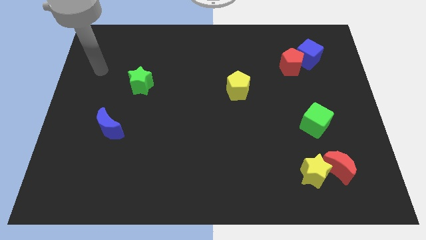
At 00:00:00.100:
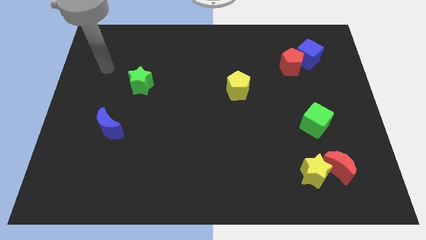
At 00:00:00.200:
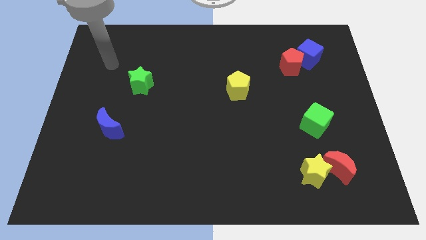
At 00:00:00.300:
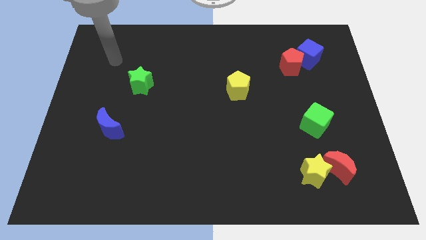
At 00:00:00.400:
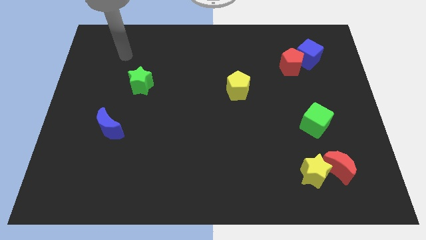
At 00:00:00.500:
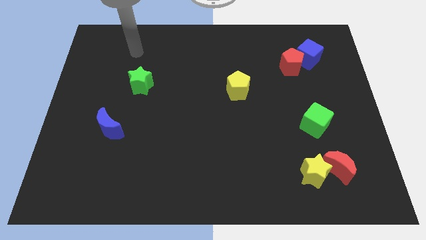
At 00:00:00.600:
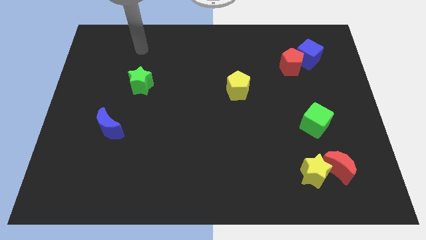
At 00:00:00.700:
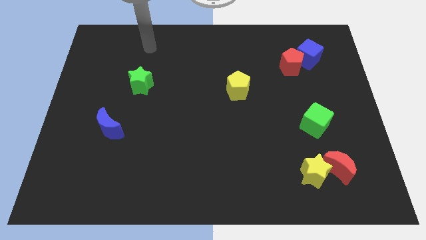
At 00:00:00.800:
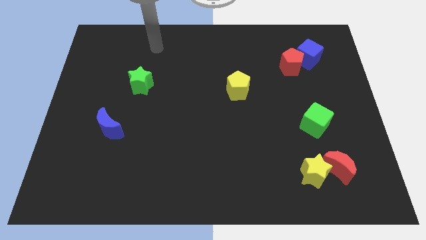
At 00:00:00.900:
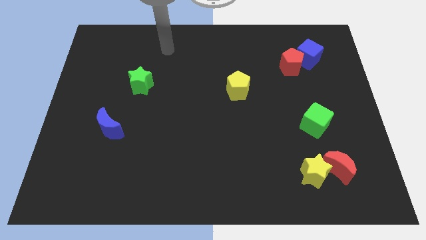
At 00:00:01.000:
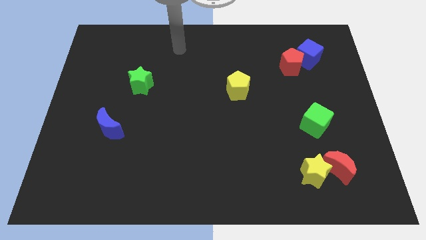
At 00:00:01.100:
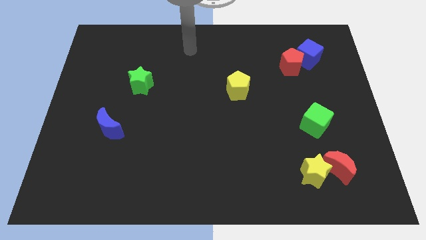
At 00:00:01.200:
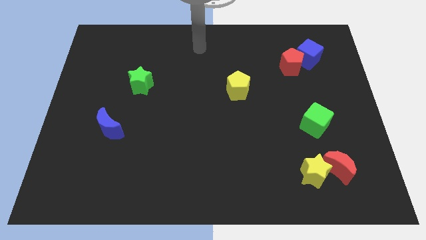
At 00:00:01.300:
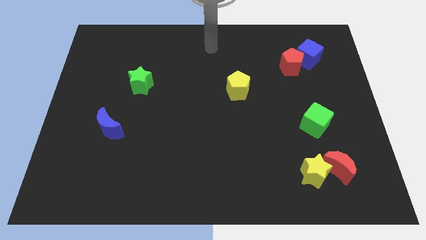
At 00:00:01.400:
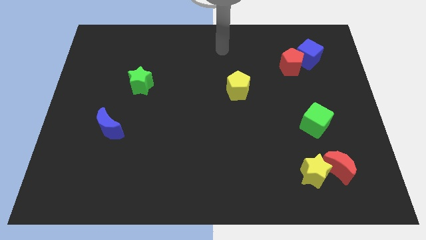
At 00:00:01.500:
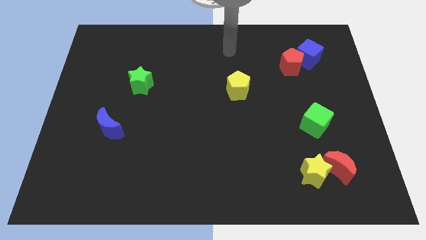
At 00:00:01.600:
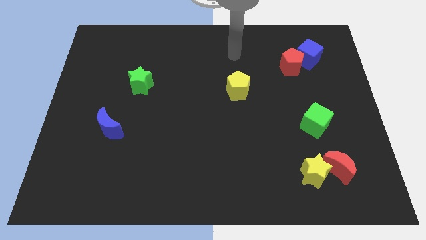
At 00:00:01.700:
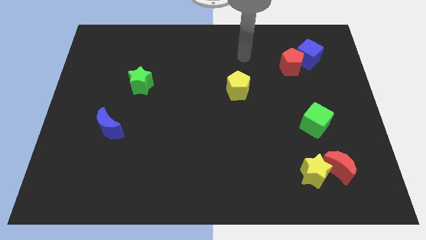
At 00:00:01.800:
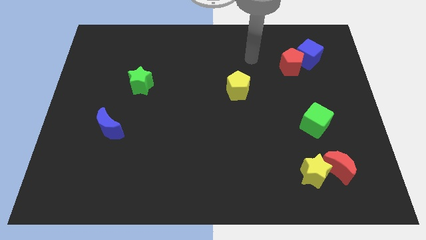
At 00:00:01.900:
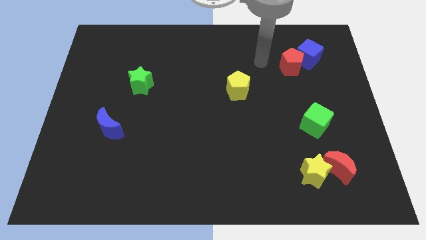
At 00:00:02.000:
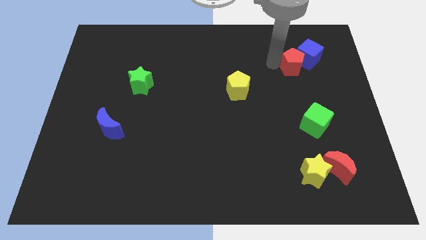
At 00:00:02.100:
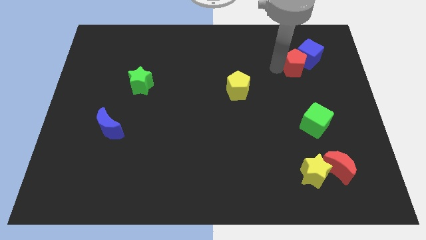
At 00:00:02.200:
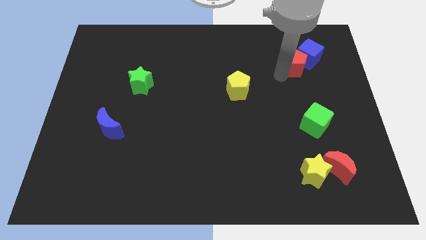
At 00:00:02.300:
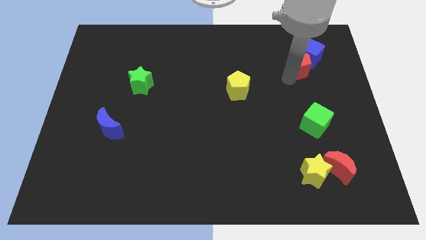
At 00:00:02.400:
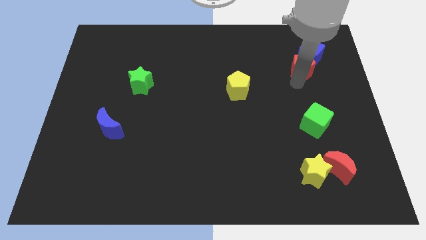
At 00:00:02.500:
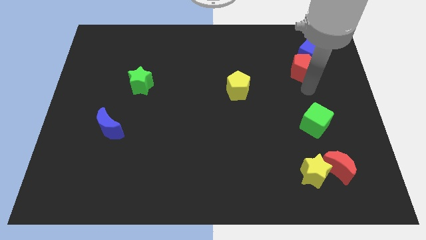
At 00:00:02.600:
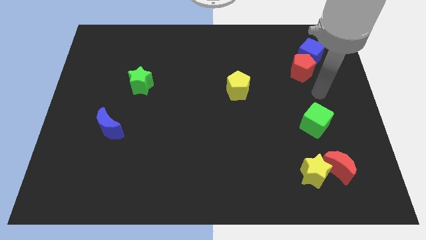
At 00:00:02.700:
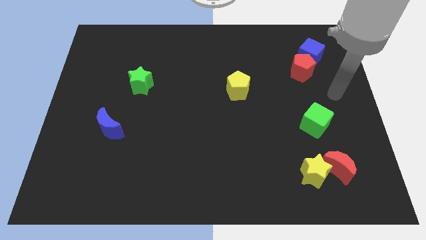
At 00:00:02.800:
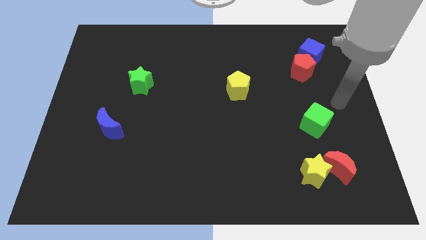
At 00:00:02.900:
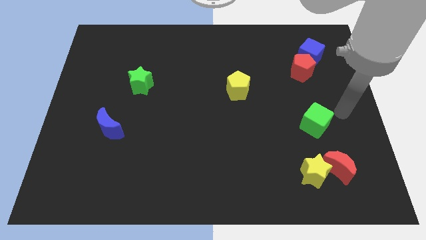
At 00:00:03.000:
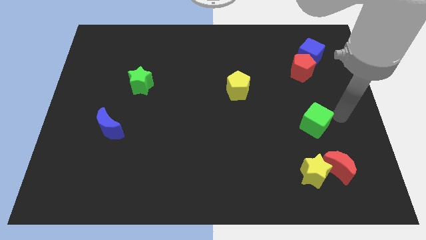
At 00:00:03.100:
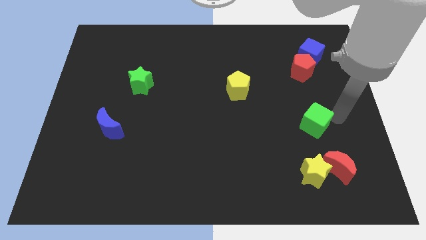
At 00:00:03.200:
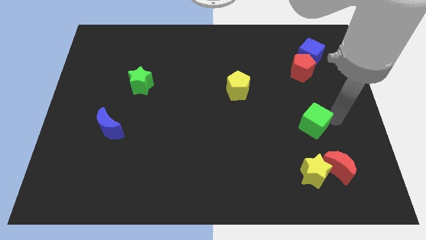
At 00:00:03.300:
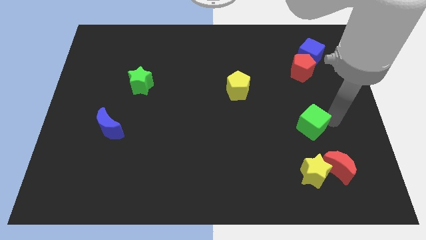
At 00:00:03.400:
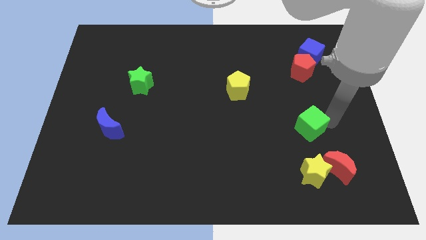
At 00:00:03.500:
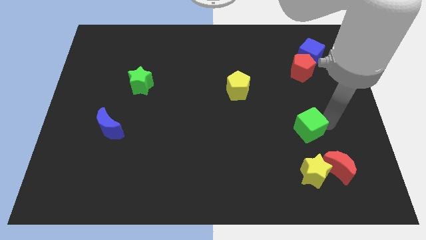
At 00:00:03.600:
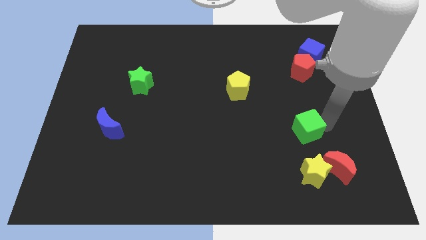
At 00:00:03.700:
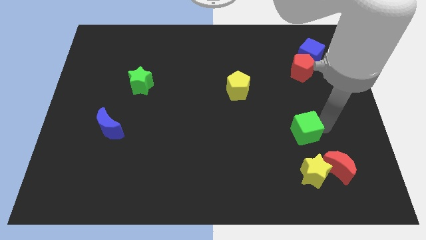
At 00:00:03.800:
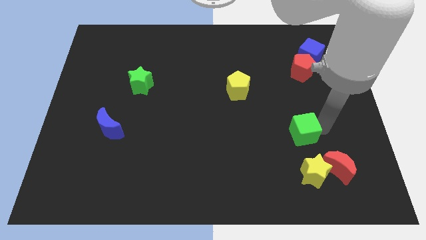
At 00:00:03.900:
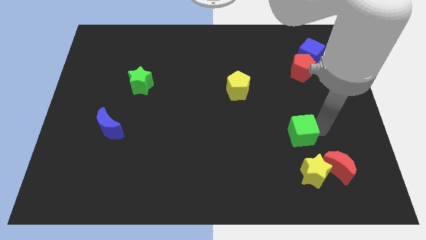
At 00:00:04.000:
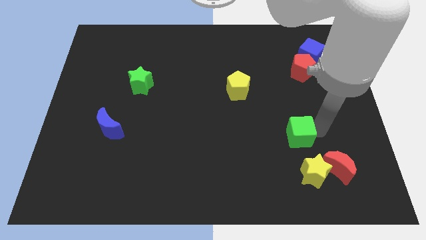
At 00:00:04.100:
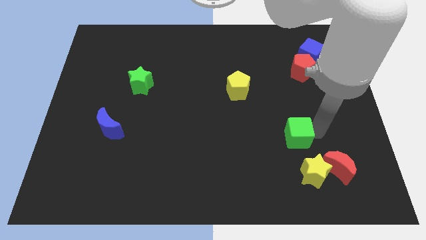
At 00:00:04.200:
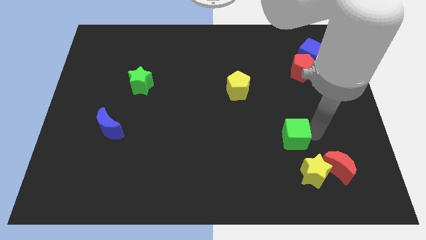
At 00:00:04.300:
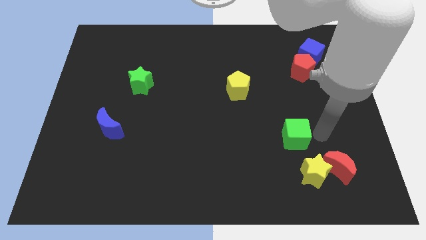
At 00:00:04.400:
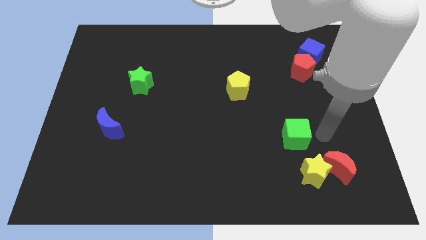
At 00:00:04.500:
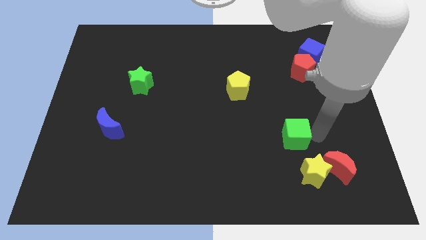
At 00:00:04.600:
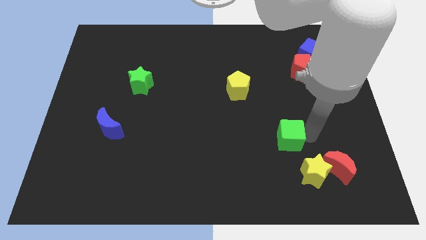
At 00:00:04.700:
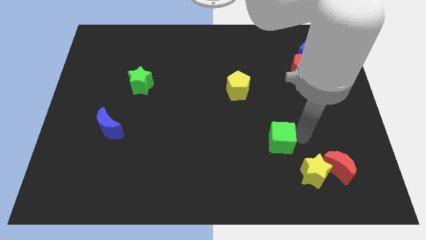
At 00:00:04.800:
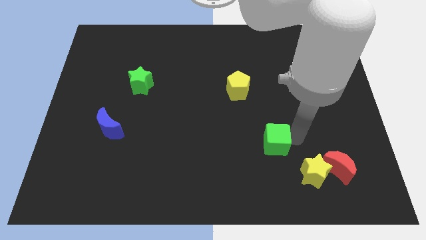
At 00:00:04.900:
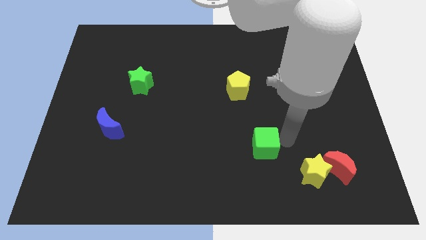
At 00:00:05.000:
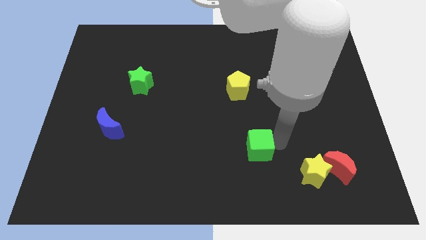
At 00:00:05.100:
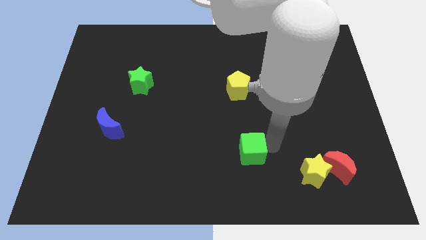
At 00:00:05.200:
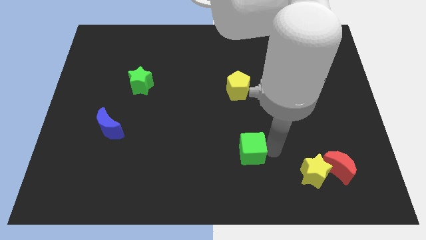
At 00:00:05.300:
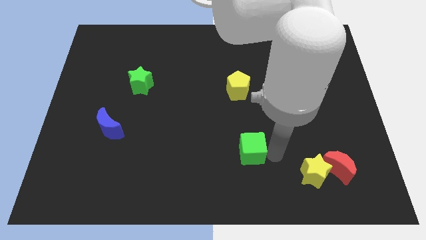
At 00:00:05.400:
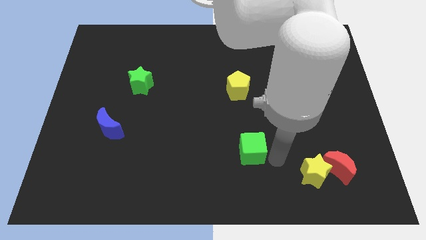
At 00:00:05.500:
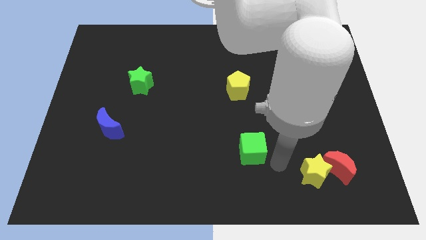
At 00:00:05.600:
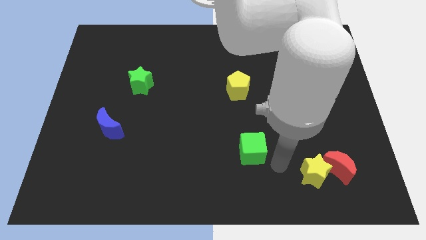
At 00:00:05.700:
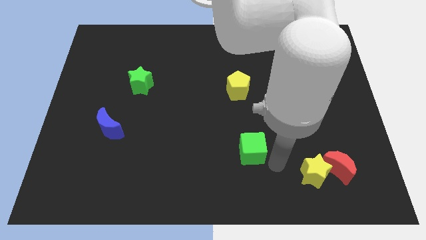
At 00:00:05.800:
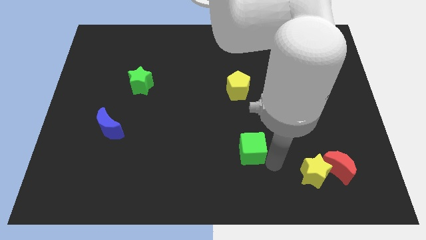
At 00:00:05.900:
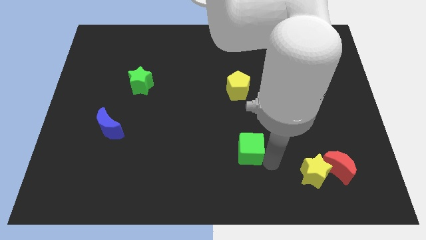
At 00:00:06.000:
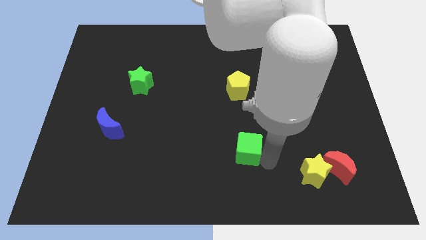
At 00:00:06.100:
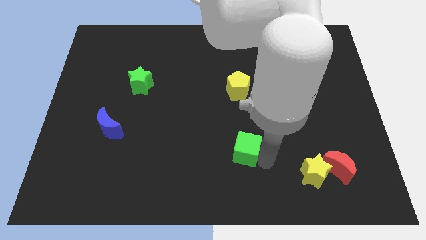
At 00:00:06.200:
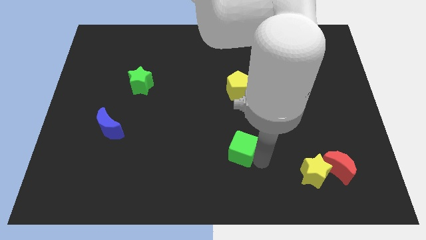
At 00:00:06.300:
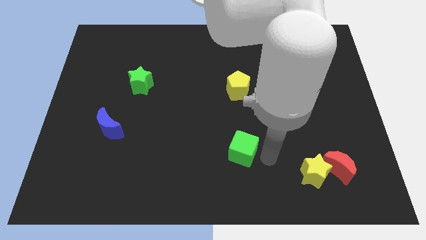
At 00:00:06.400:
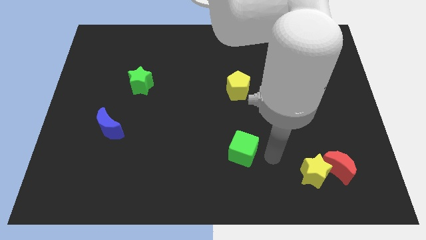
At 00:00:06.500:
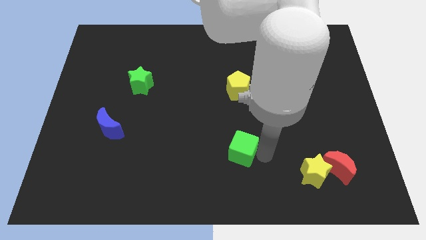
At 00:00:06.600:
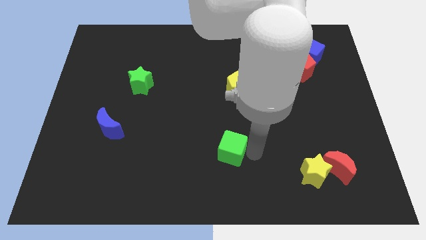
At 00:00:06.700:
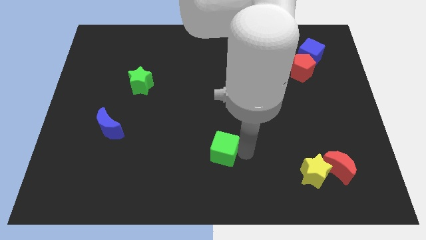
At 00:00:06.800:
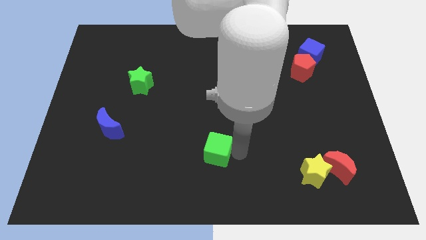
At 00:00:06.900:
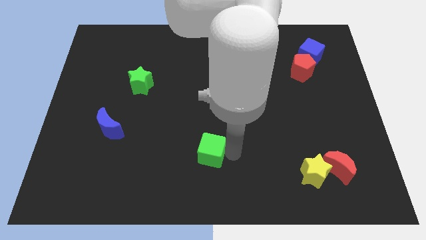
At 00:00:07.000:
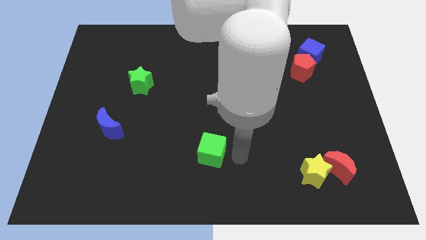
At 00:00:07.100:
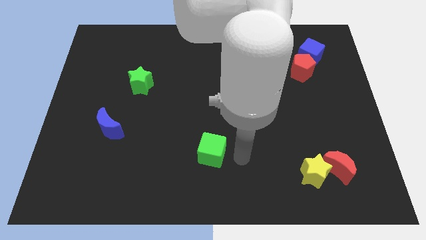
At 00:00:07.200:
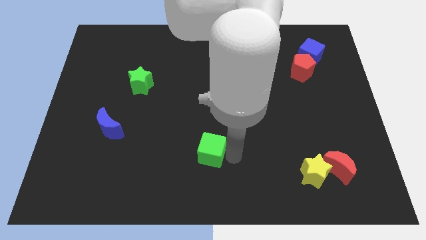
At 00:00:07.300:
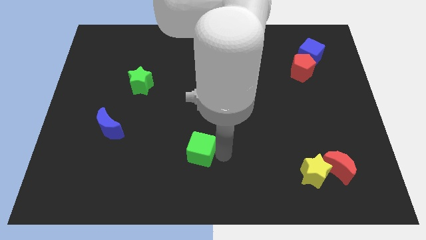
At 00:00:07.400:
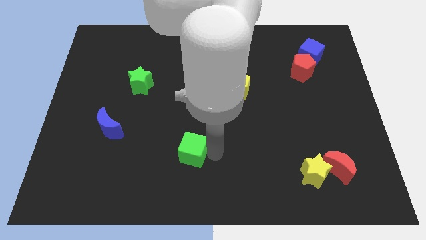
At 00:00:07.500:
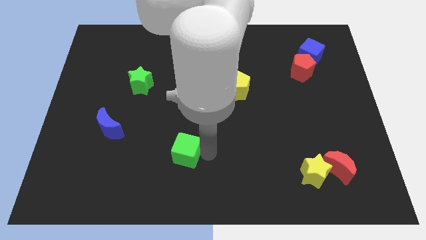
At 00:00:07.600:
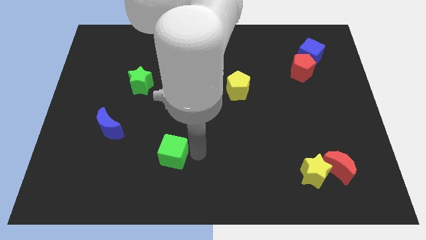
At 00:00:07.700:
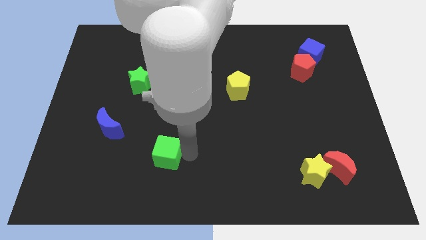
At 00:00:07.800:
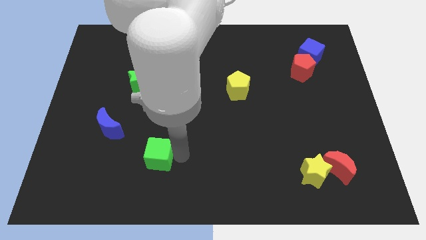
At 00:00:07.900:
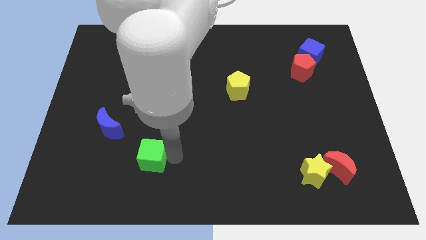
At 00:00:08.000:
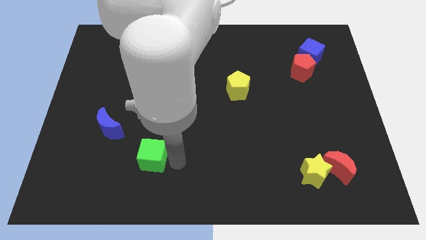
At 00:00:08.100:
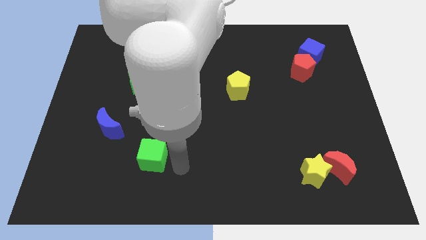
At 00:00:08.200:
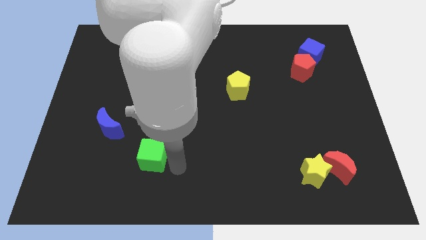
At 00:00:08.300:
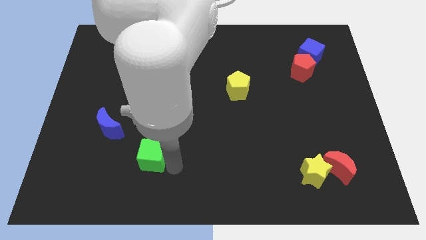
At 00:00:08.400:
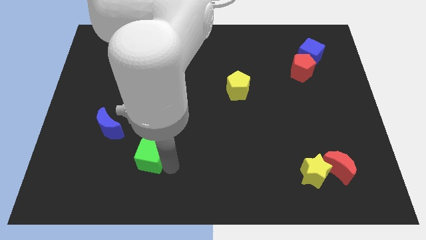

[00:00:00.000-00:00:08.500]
move the green cube diagonally down and to the right of the blue moon
